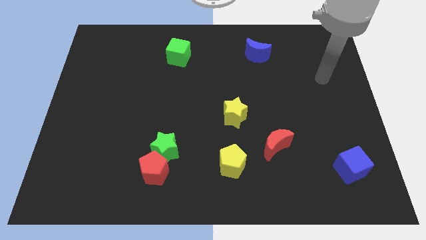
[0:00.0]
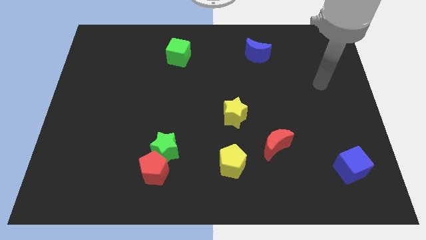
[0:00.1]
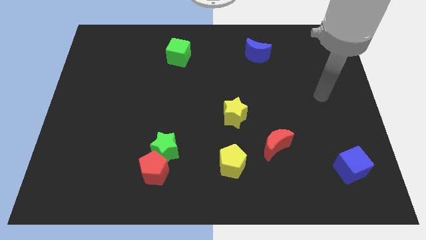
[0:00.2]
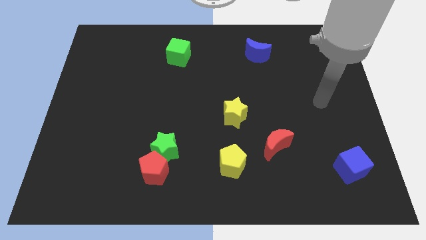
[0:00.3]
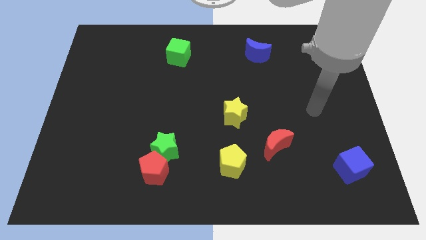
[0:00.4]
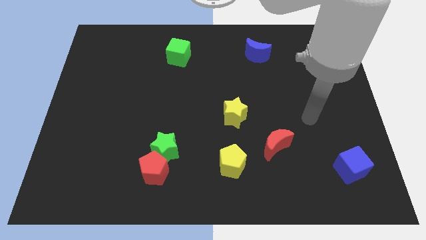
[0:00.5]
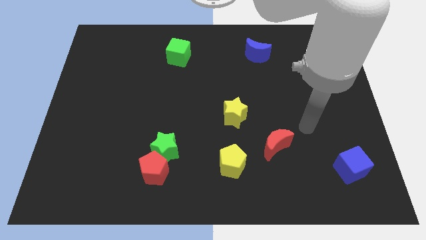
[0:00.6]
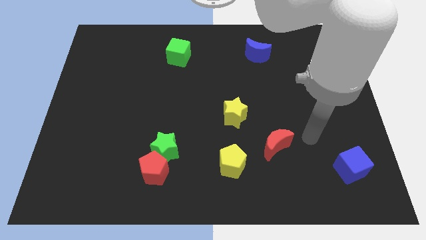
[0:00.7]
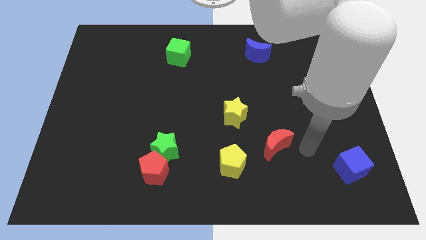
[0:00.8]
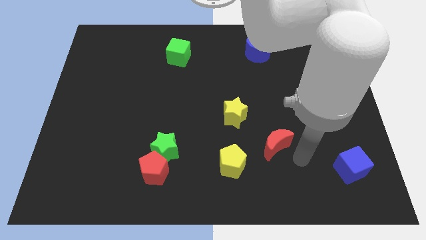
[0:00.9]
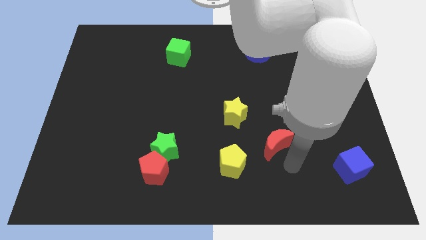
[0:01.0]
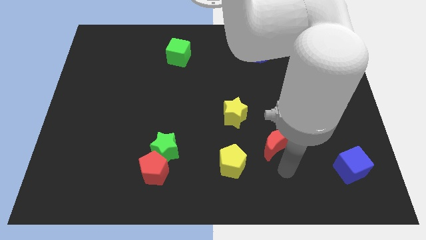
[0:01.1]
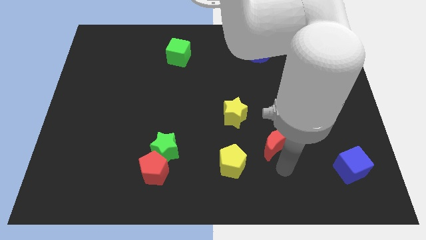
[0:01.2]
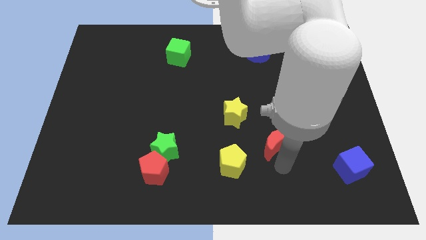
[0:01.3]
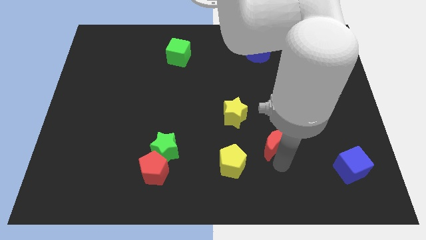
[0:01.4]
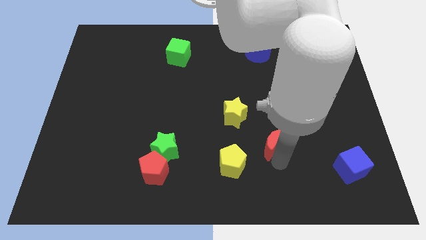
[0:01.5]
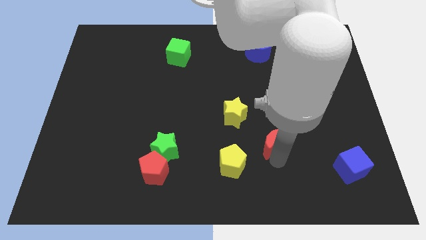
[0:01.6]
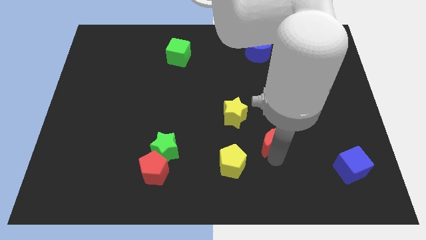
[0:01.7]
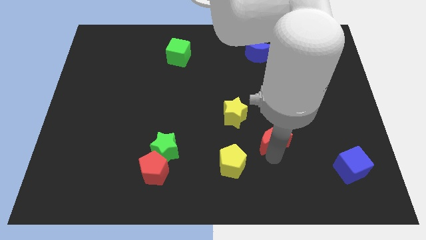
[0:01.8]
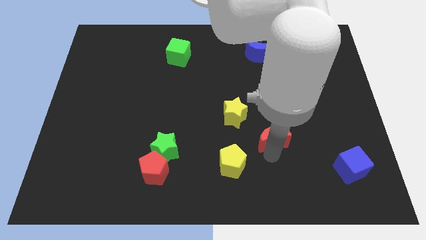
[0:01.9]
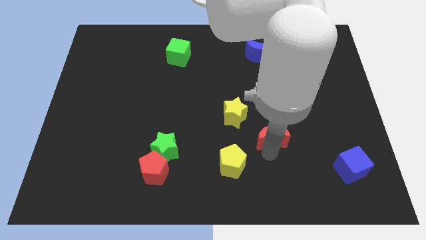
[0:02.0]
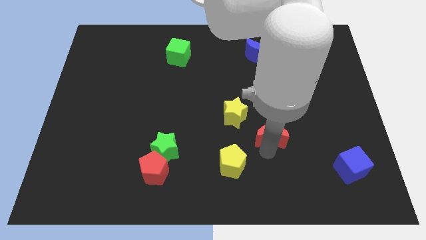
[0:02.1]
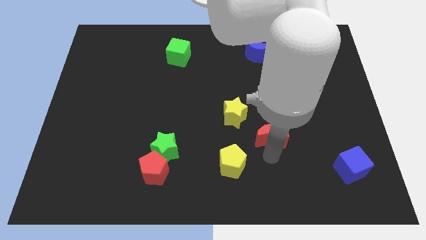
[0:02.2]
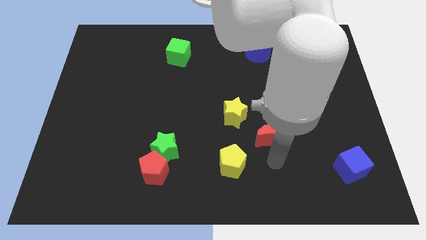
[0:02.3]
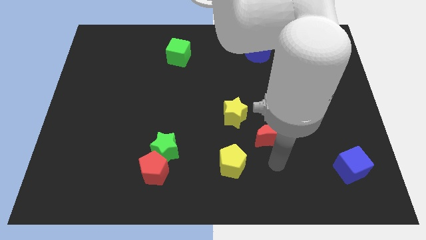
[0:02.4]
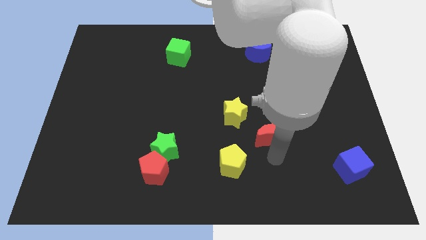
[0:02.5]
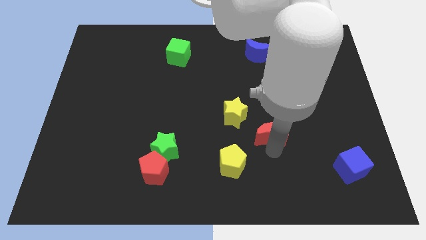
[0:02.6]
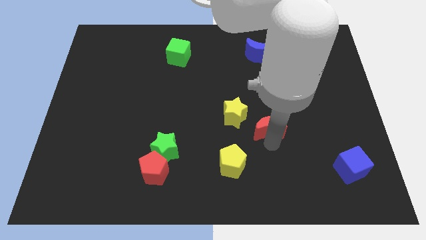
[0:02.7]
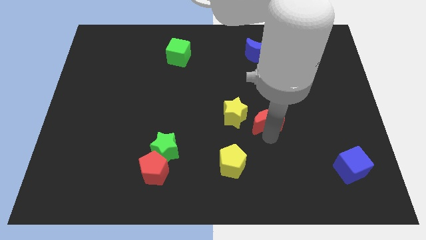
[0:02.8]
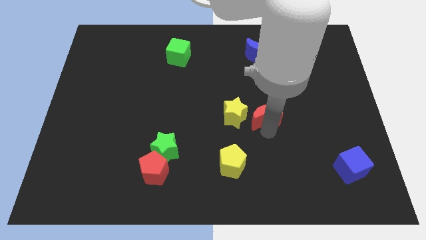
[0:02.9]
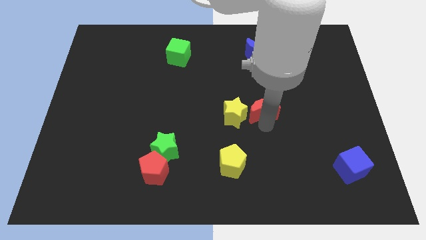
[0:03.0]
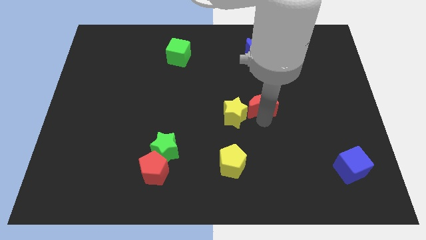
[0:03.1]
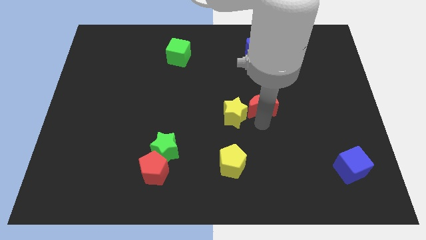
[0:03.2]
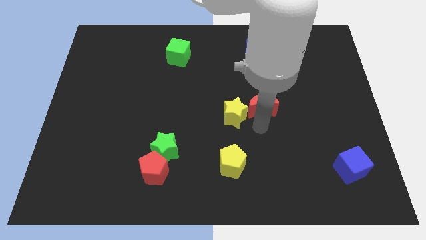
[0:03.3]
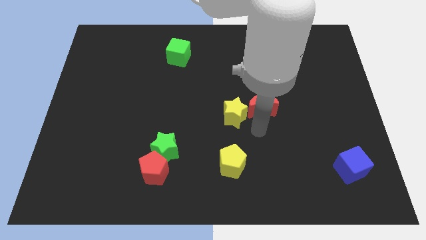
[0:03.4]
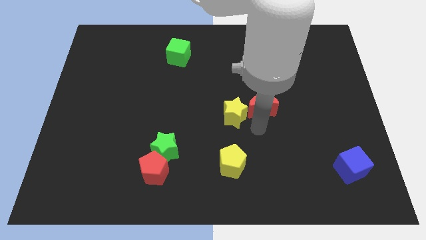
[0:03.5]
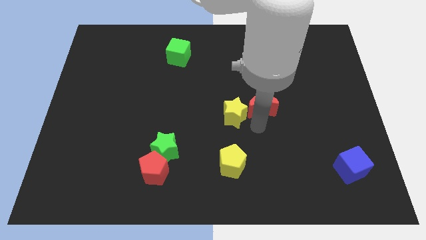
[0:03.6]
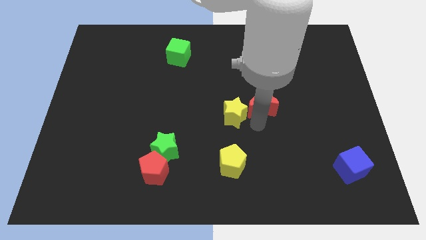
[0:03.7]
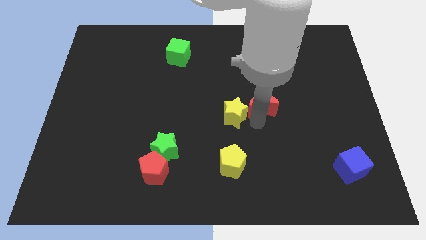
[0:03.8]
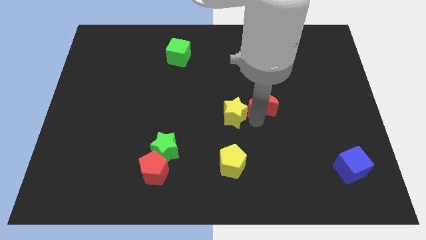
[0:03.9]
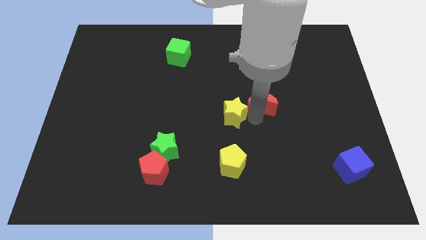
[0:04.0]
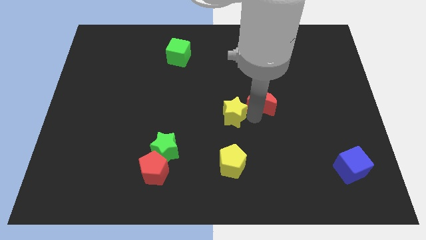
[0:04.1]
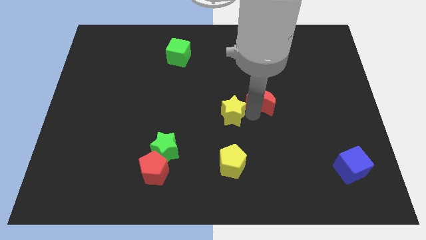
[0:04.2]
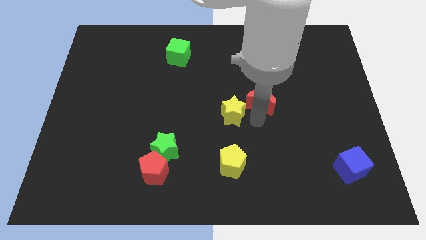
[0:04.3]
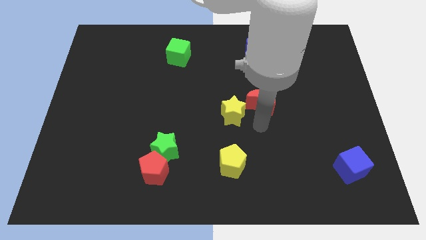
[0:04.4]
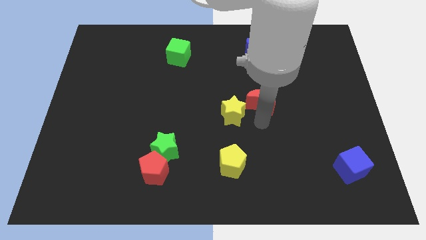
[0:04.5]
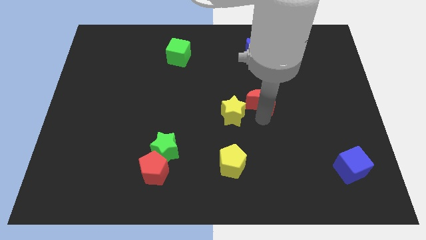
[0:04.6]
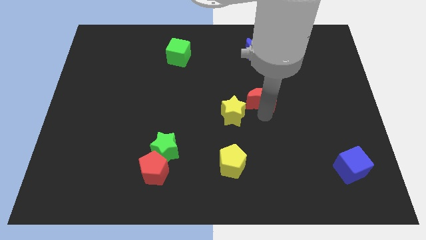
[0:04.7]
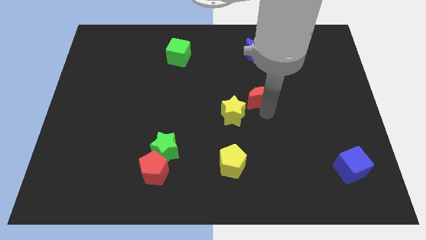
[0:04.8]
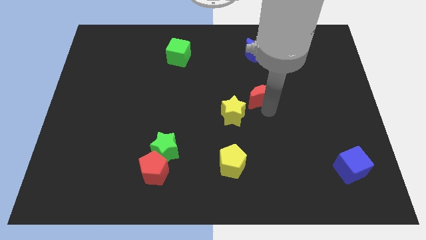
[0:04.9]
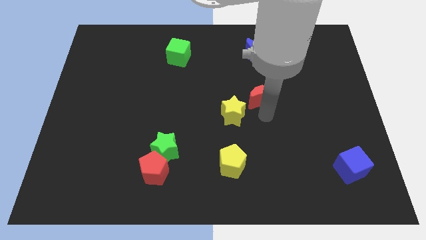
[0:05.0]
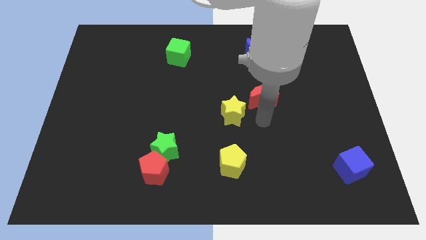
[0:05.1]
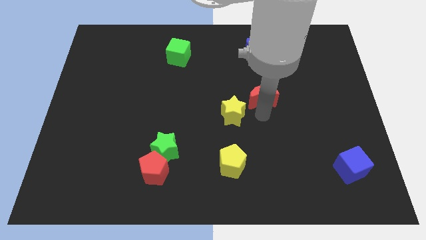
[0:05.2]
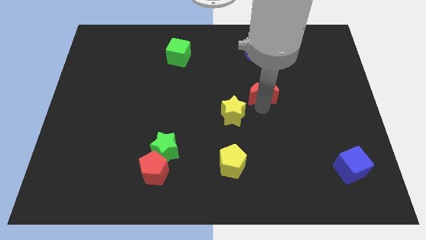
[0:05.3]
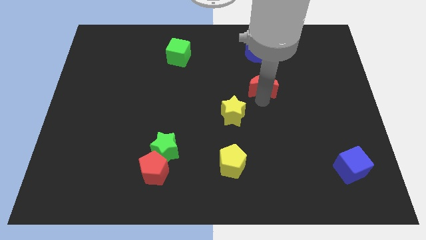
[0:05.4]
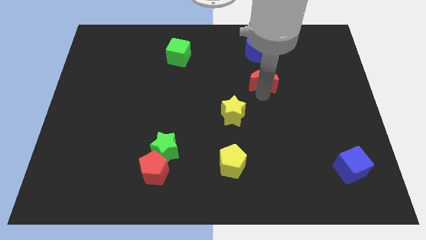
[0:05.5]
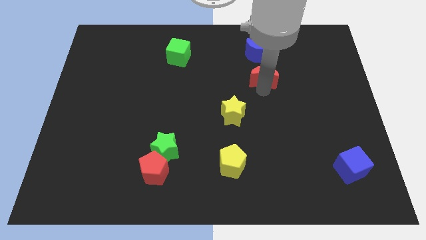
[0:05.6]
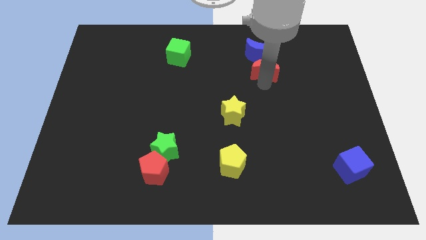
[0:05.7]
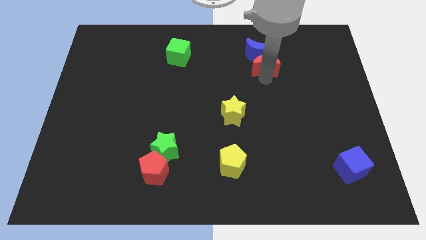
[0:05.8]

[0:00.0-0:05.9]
slide the red moon towards the blue moon

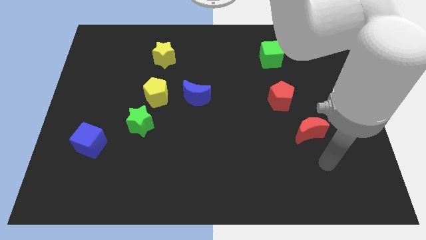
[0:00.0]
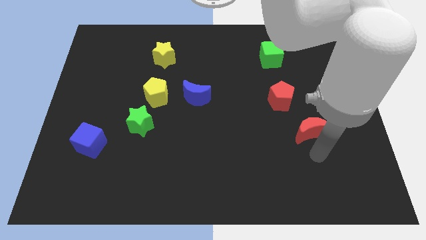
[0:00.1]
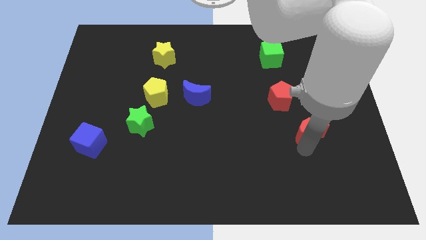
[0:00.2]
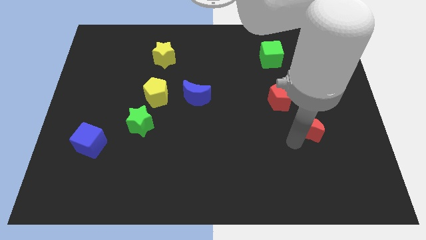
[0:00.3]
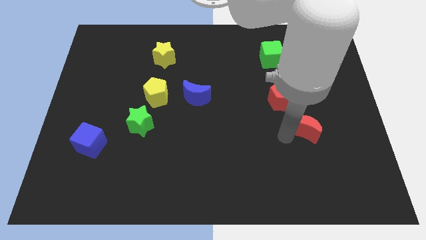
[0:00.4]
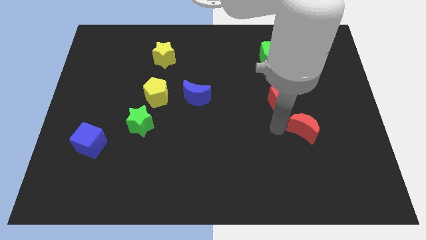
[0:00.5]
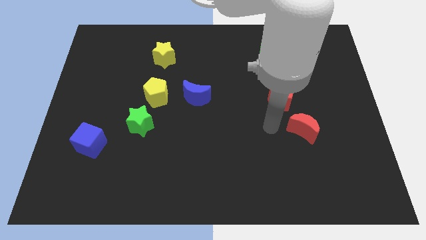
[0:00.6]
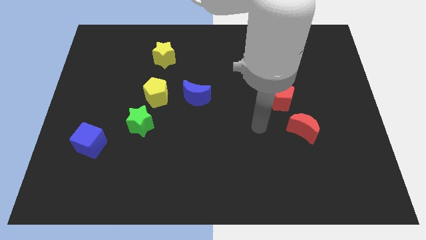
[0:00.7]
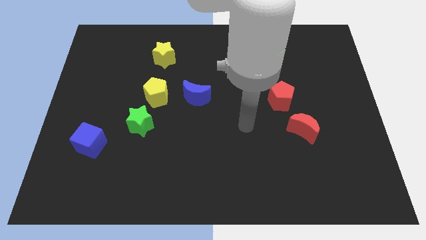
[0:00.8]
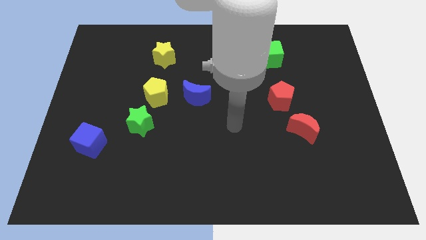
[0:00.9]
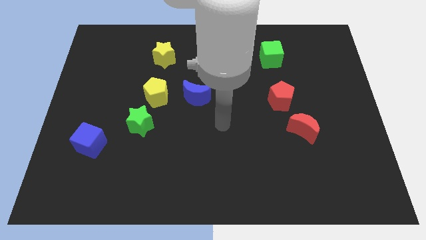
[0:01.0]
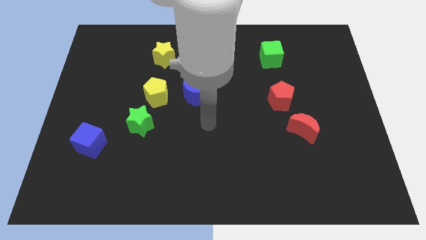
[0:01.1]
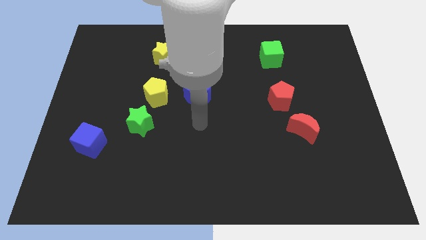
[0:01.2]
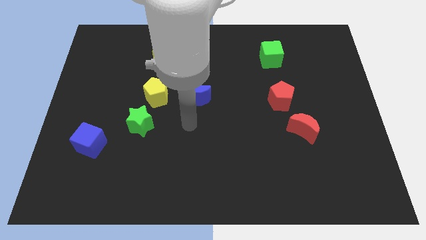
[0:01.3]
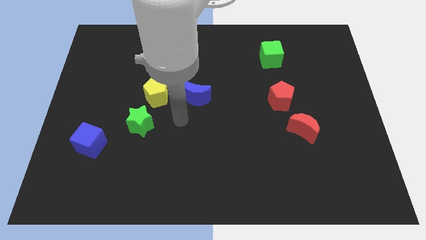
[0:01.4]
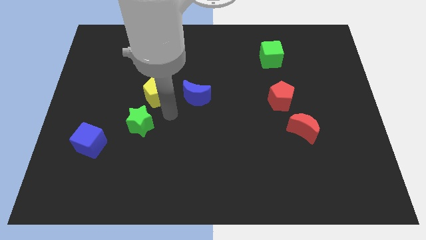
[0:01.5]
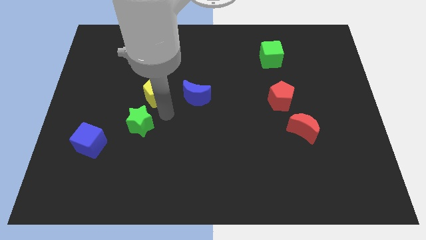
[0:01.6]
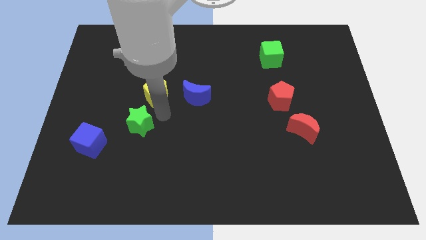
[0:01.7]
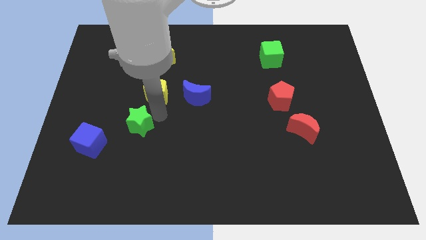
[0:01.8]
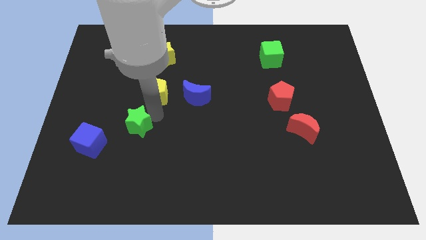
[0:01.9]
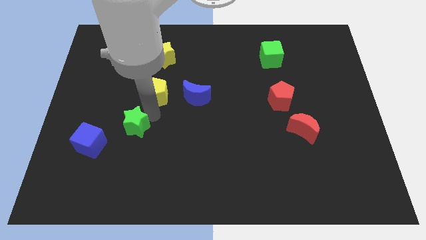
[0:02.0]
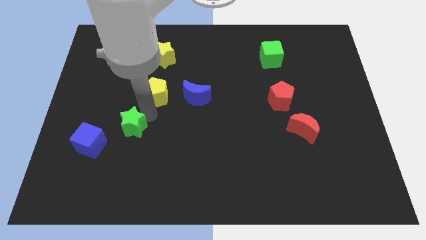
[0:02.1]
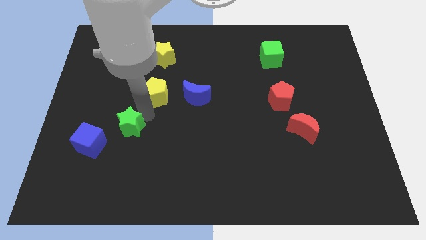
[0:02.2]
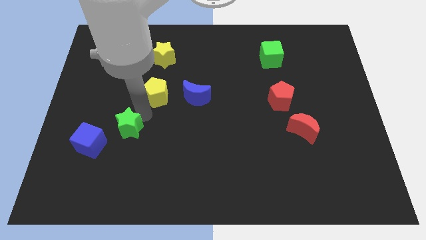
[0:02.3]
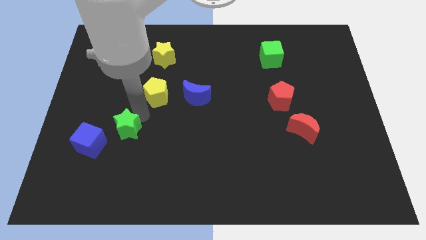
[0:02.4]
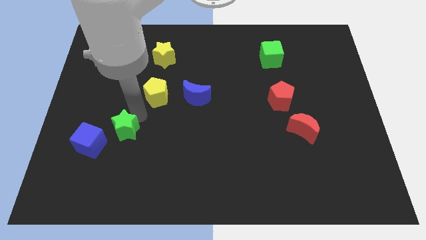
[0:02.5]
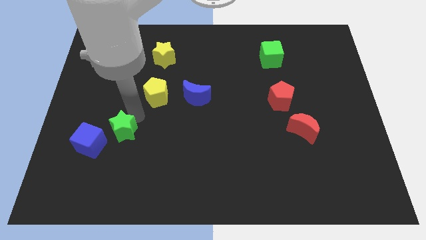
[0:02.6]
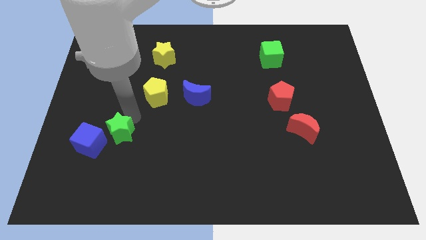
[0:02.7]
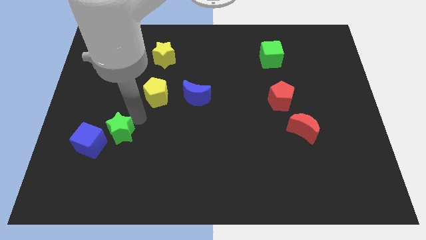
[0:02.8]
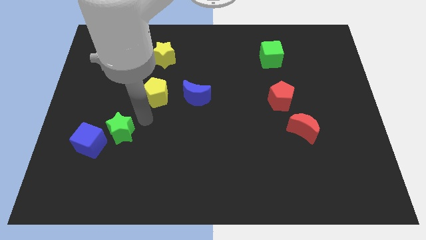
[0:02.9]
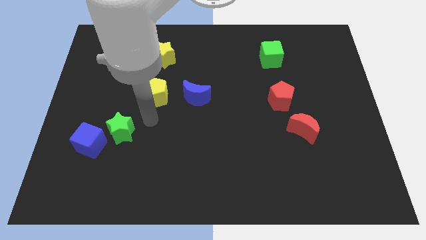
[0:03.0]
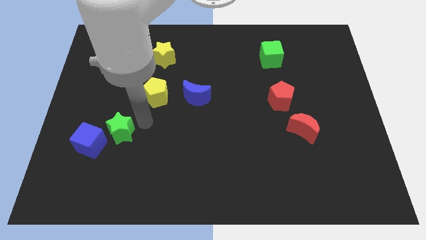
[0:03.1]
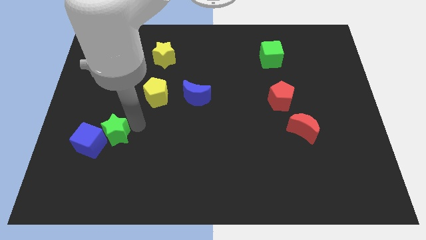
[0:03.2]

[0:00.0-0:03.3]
slide the green star close to the blue cube
